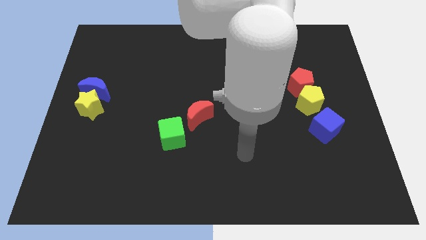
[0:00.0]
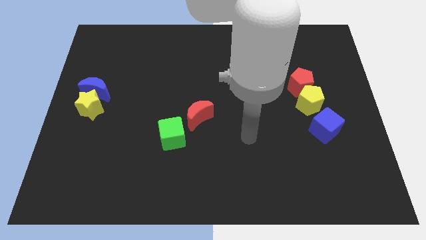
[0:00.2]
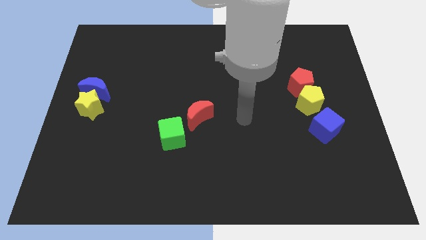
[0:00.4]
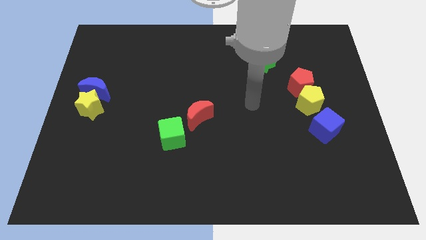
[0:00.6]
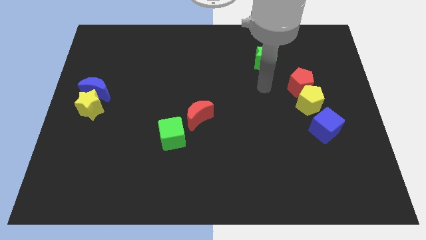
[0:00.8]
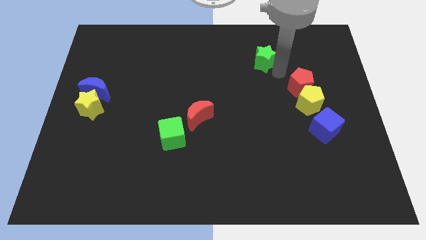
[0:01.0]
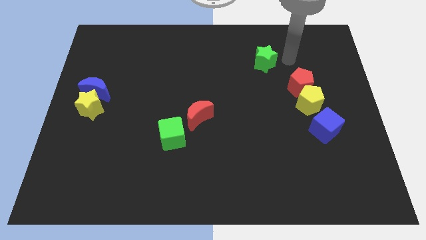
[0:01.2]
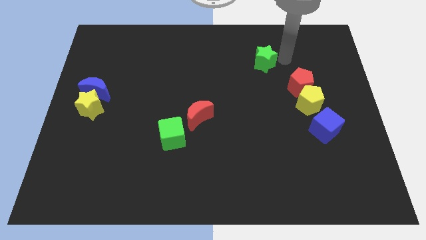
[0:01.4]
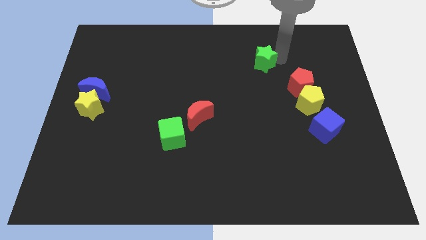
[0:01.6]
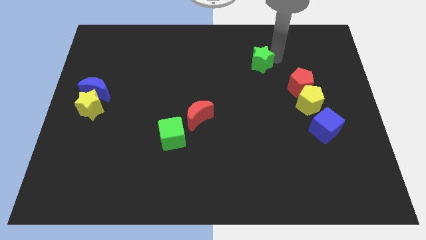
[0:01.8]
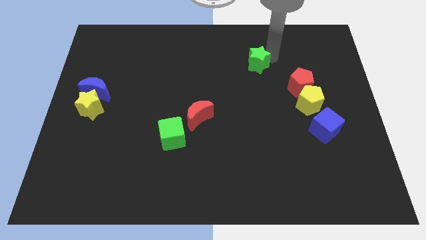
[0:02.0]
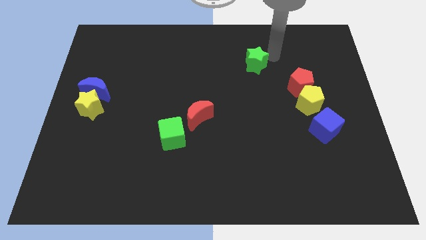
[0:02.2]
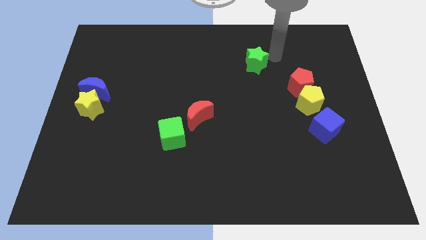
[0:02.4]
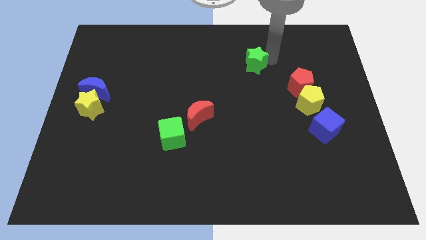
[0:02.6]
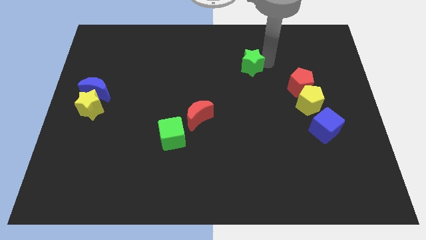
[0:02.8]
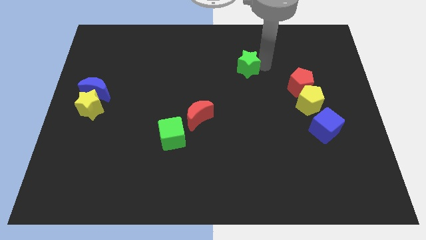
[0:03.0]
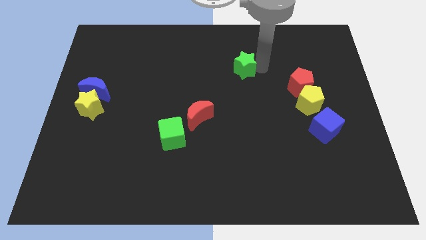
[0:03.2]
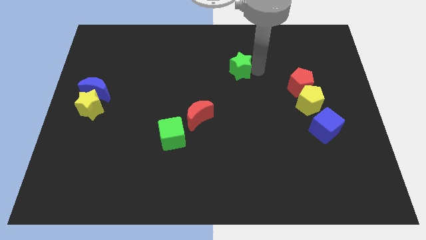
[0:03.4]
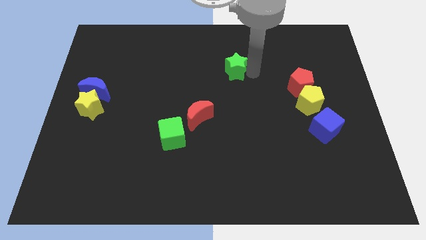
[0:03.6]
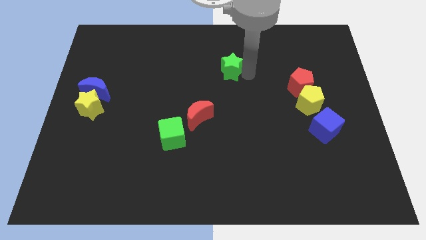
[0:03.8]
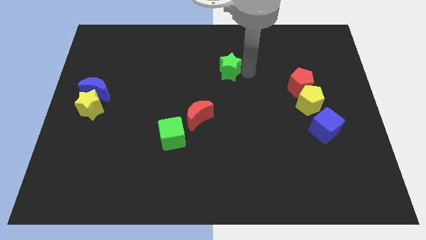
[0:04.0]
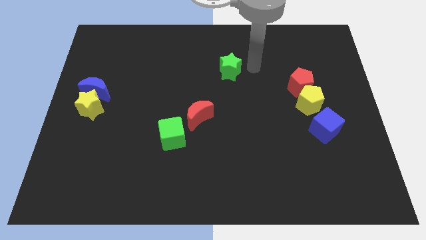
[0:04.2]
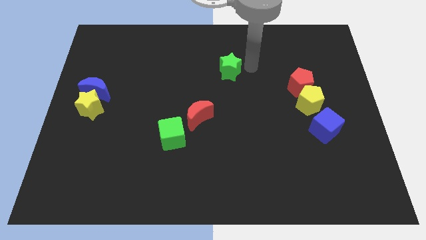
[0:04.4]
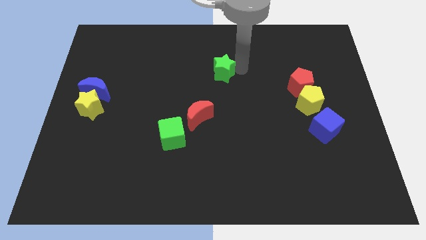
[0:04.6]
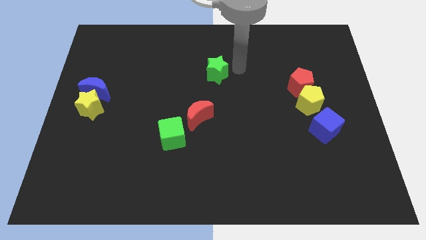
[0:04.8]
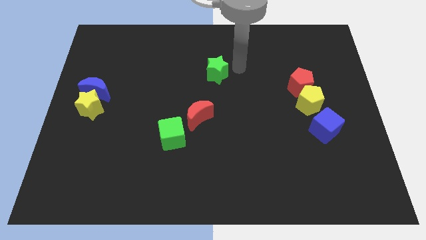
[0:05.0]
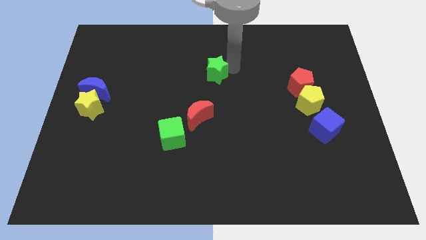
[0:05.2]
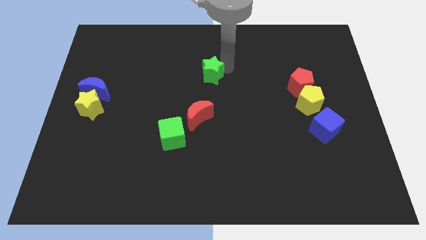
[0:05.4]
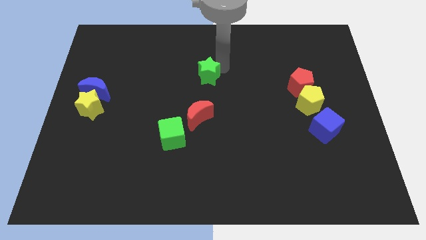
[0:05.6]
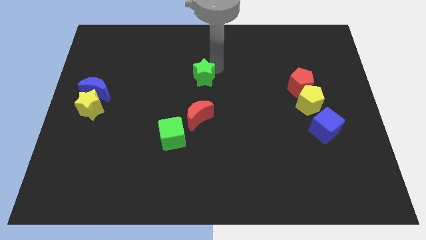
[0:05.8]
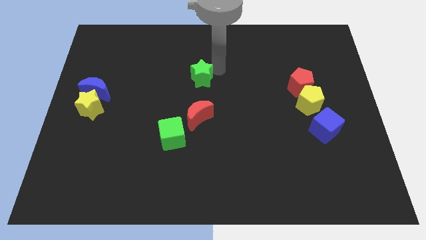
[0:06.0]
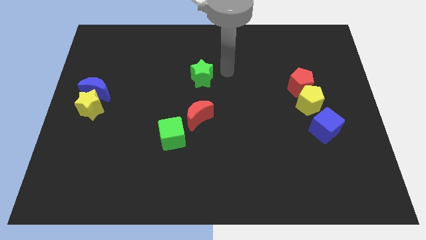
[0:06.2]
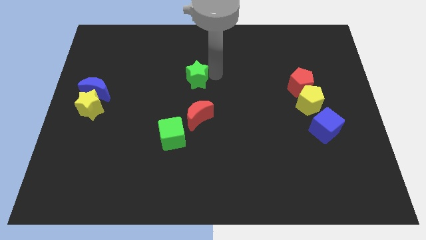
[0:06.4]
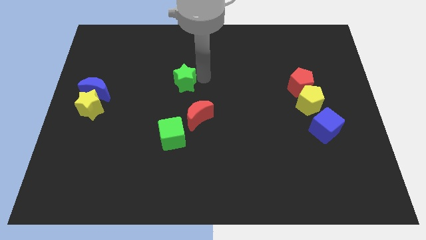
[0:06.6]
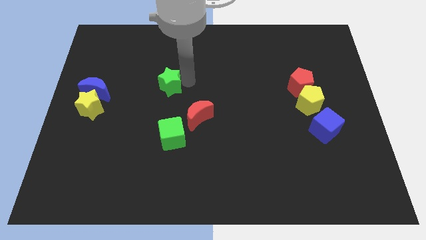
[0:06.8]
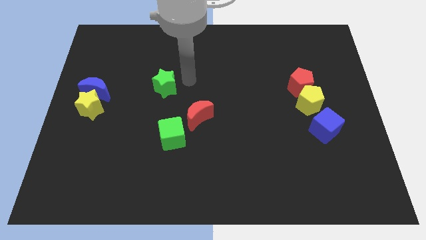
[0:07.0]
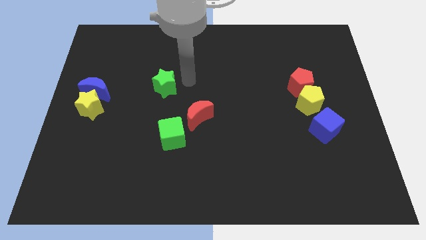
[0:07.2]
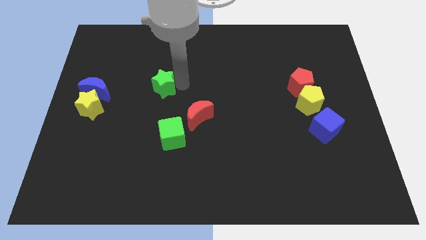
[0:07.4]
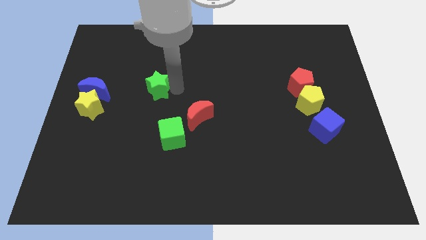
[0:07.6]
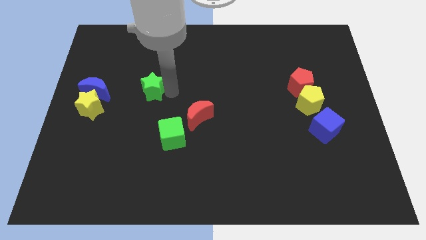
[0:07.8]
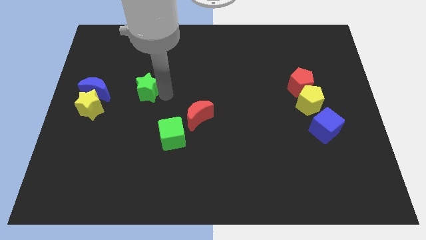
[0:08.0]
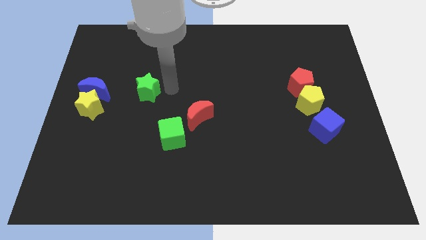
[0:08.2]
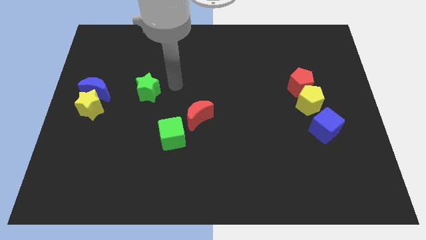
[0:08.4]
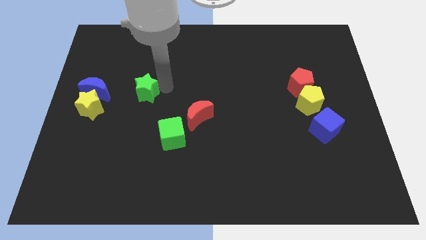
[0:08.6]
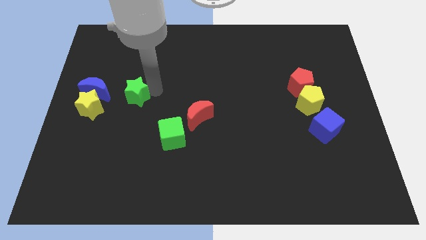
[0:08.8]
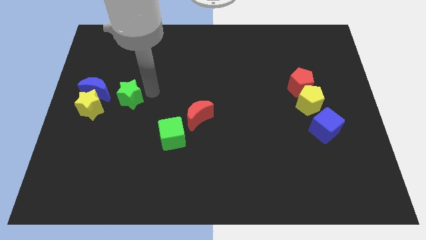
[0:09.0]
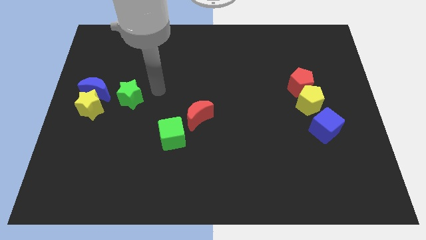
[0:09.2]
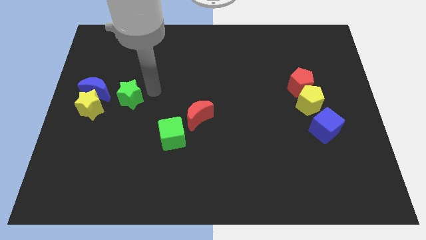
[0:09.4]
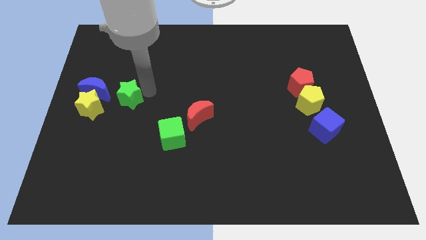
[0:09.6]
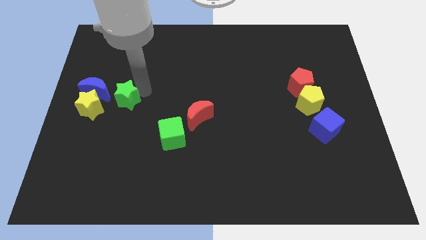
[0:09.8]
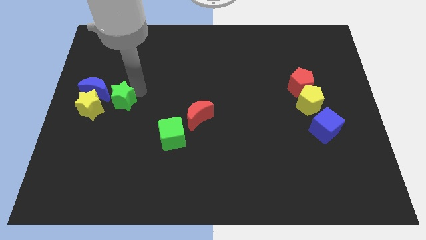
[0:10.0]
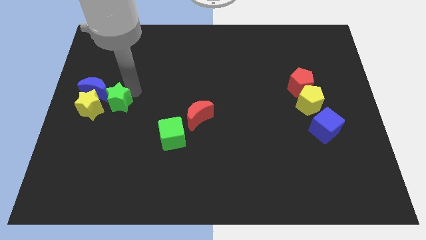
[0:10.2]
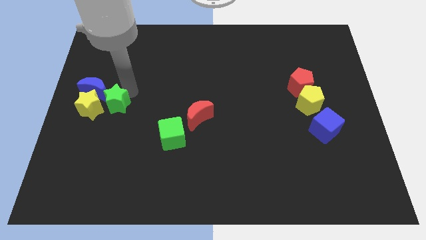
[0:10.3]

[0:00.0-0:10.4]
slide the green star close to the yellow star

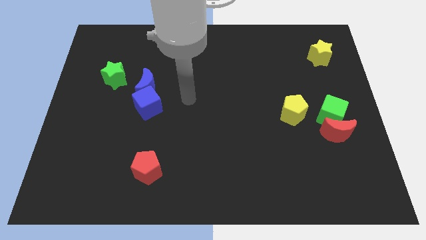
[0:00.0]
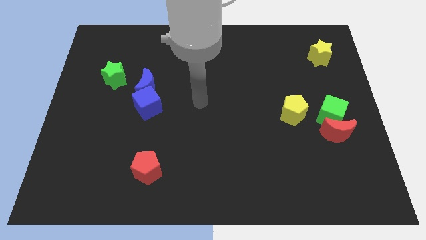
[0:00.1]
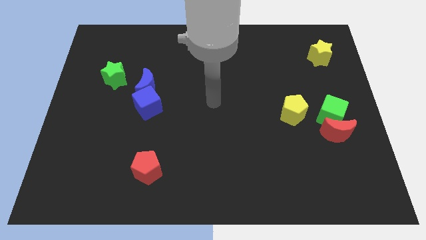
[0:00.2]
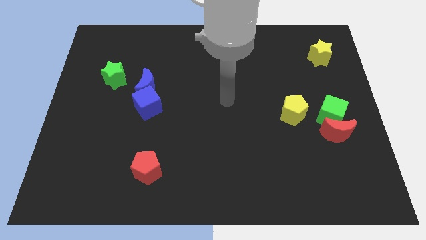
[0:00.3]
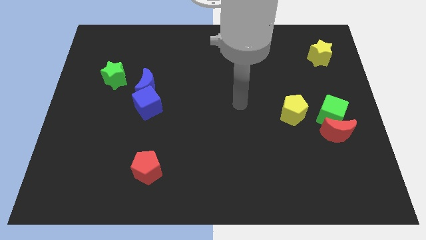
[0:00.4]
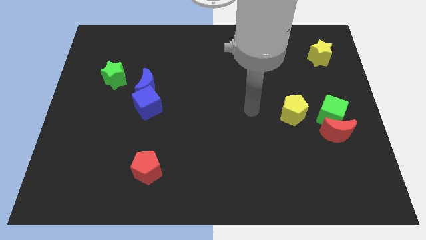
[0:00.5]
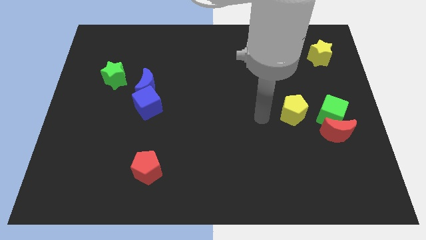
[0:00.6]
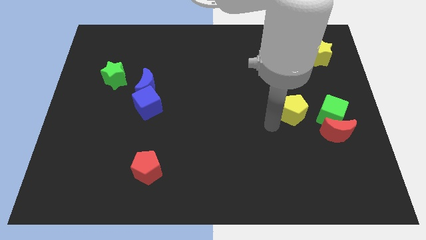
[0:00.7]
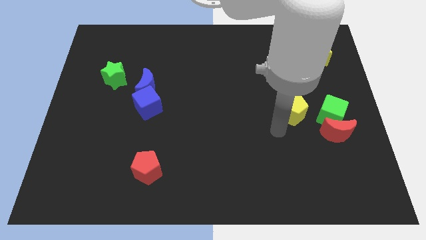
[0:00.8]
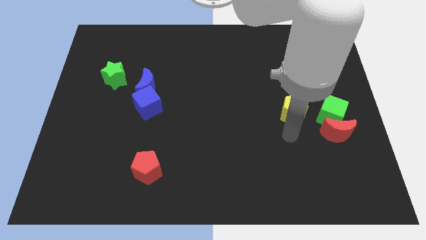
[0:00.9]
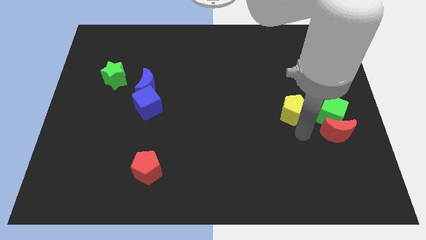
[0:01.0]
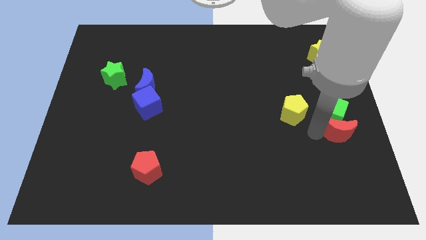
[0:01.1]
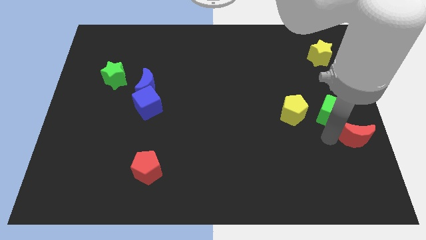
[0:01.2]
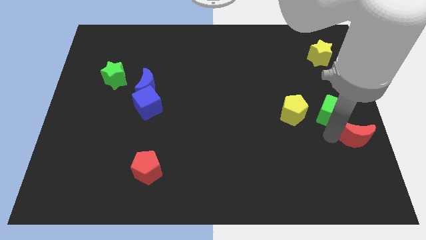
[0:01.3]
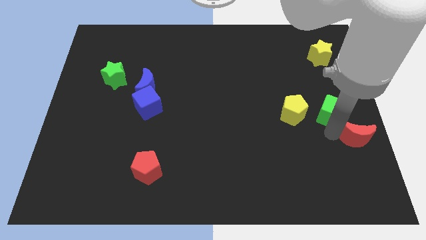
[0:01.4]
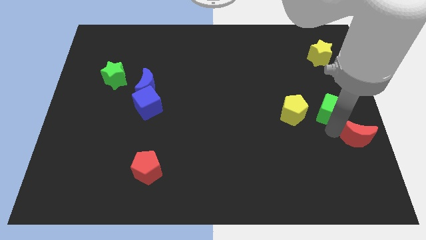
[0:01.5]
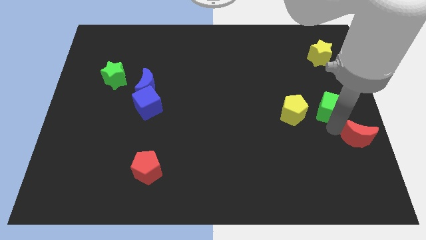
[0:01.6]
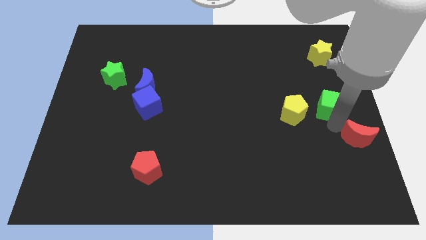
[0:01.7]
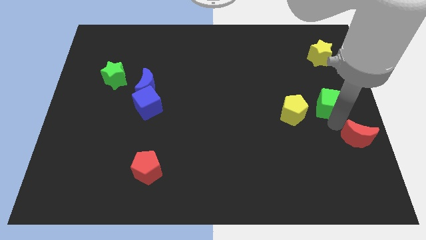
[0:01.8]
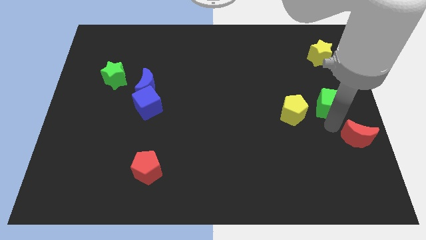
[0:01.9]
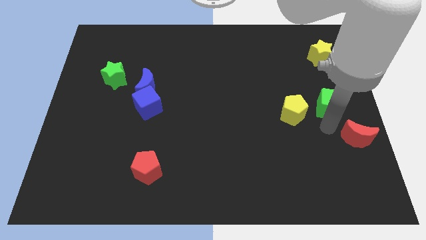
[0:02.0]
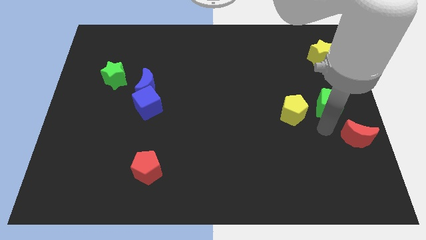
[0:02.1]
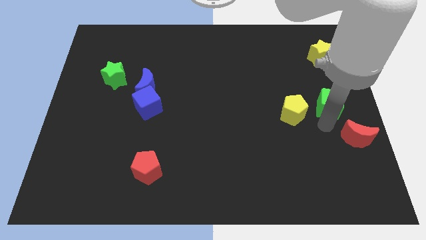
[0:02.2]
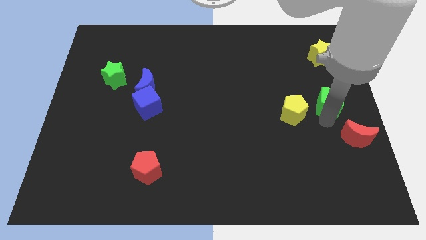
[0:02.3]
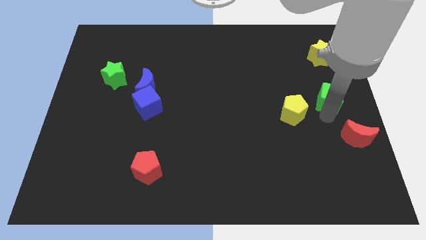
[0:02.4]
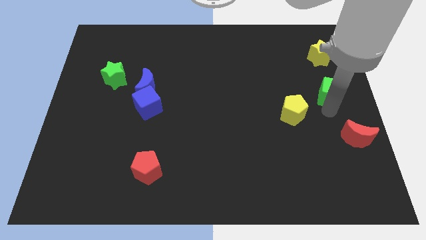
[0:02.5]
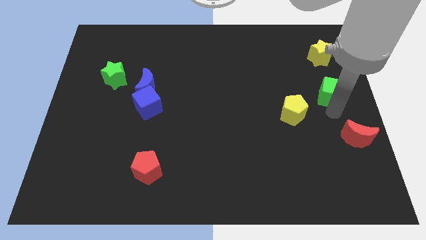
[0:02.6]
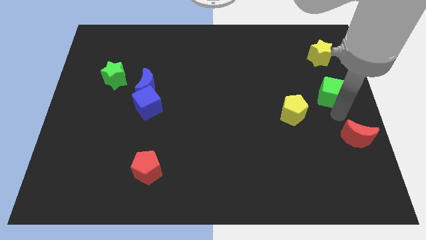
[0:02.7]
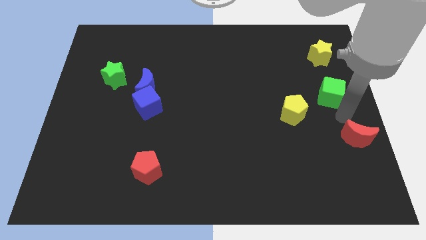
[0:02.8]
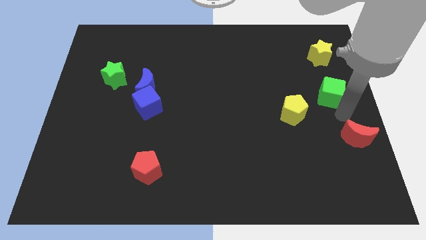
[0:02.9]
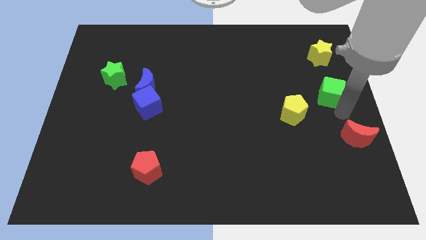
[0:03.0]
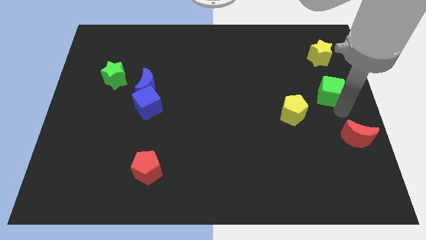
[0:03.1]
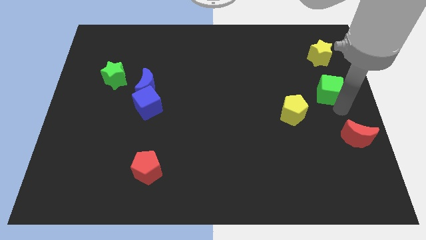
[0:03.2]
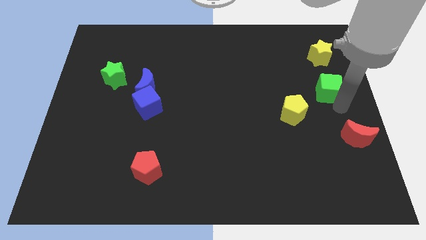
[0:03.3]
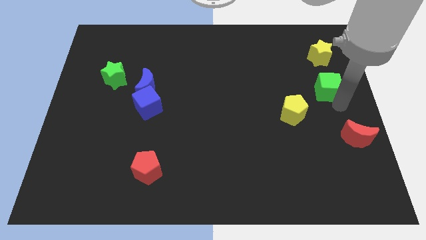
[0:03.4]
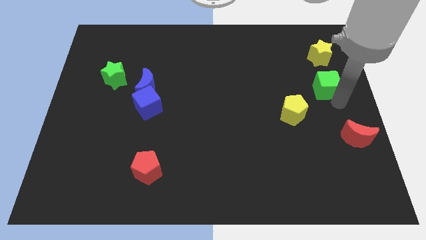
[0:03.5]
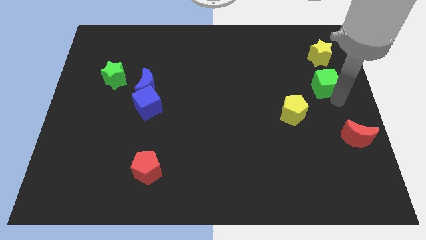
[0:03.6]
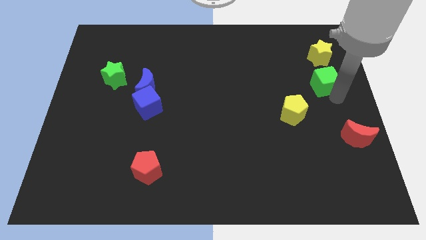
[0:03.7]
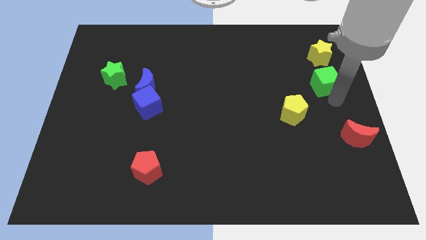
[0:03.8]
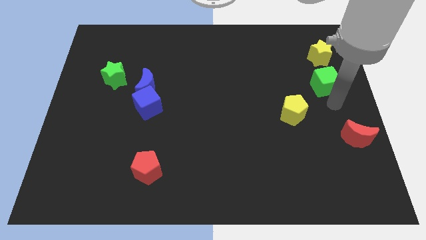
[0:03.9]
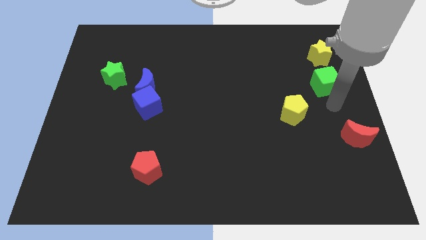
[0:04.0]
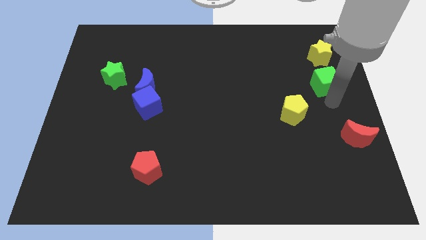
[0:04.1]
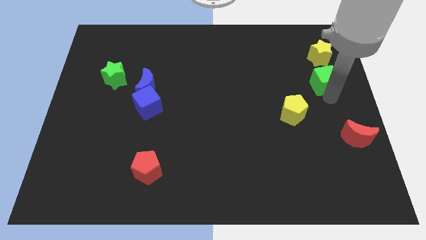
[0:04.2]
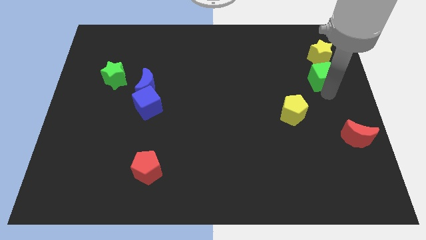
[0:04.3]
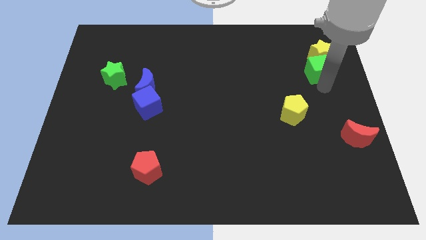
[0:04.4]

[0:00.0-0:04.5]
put the green cube to the yellow star
